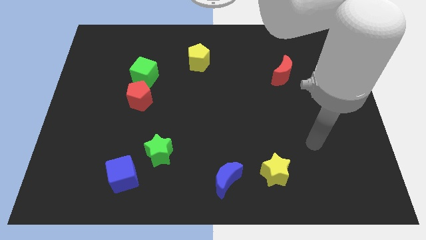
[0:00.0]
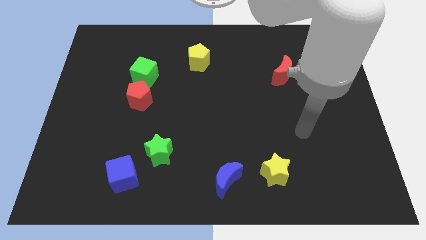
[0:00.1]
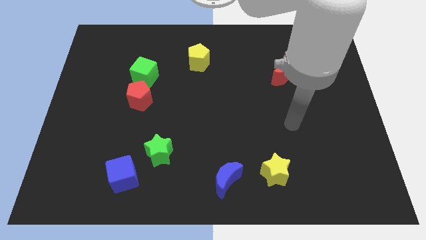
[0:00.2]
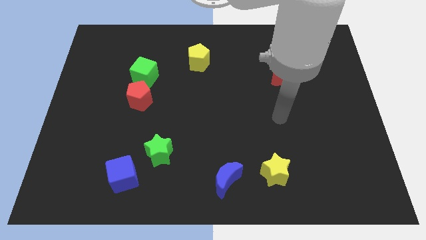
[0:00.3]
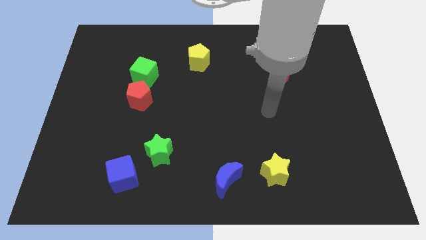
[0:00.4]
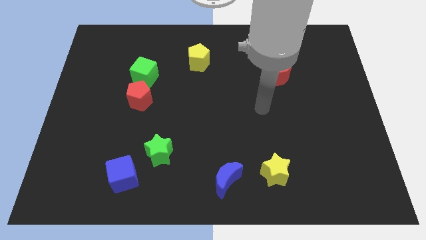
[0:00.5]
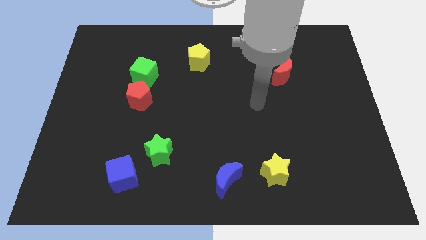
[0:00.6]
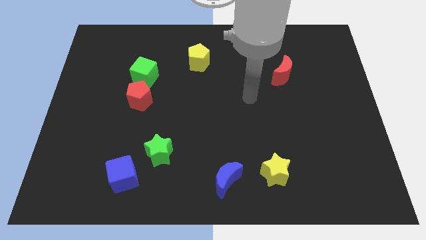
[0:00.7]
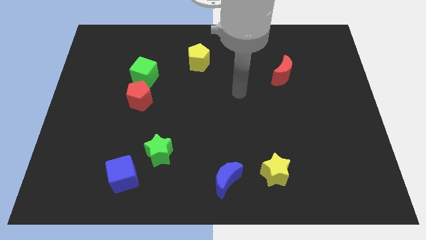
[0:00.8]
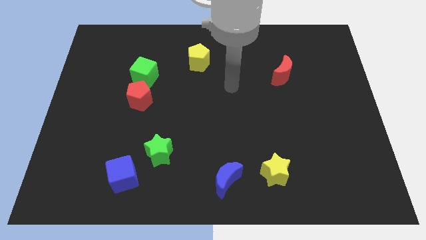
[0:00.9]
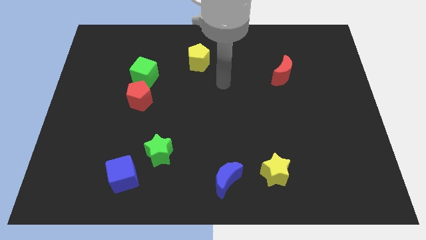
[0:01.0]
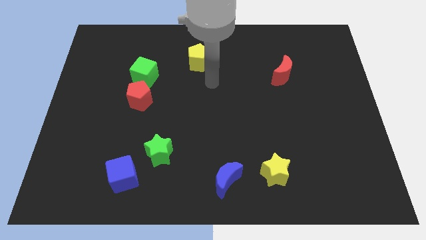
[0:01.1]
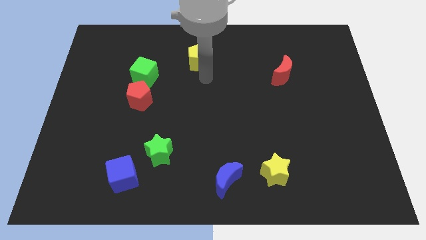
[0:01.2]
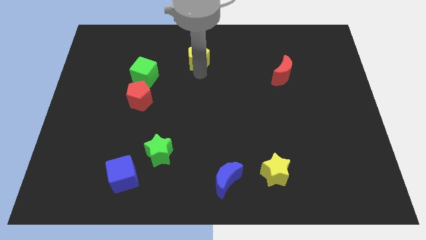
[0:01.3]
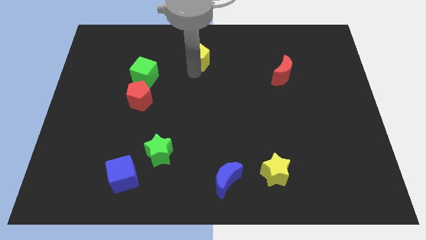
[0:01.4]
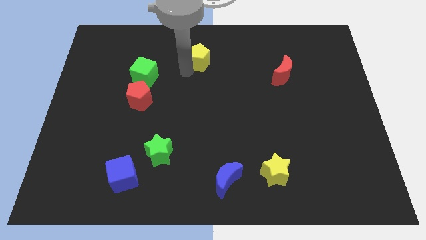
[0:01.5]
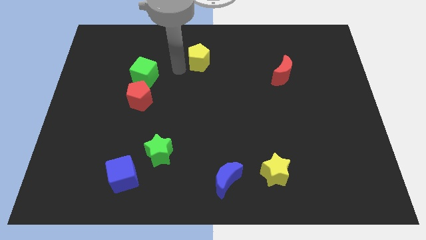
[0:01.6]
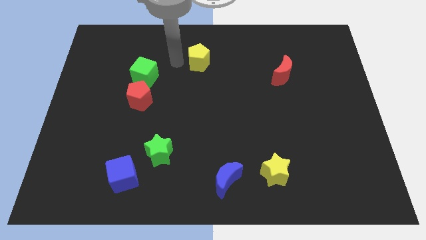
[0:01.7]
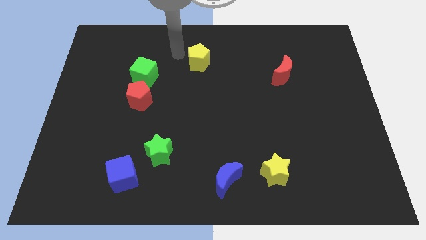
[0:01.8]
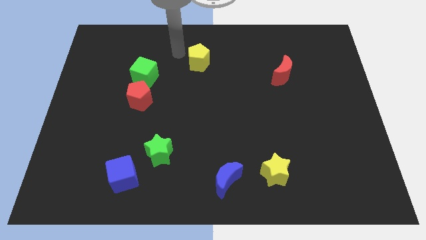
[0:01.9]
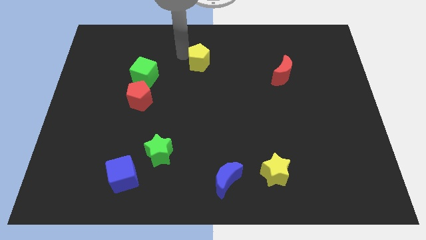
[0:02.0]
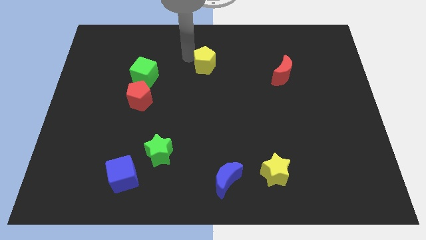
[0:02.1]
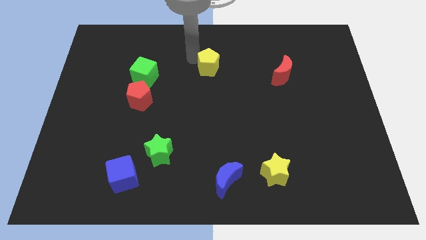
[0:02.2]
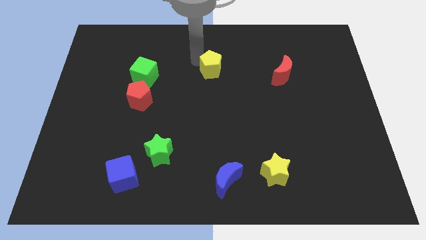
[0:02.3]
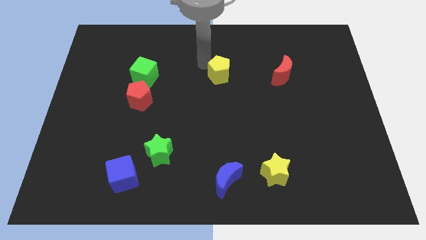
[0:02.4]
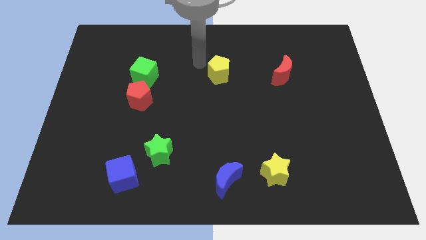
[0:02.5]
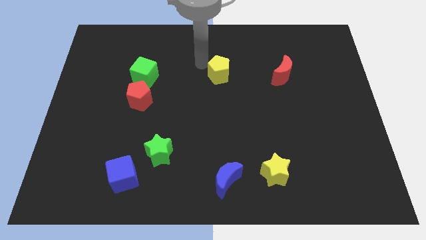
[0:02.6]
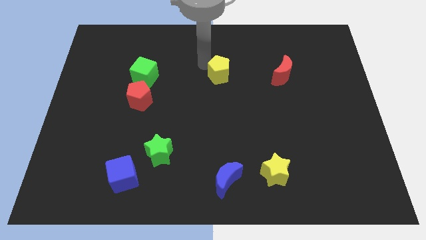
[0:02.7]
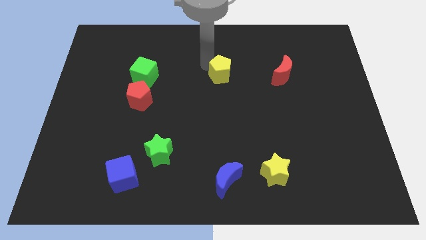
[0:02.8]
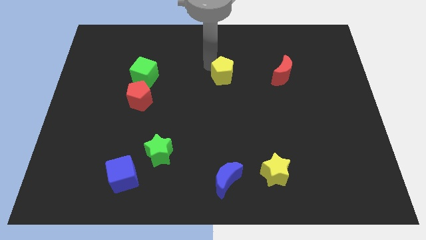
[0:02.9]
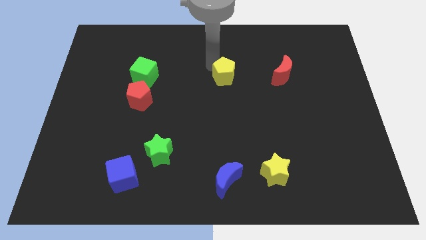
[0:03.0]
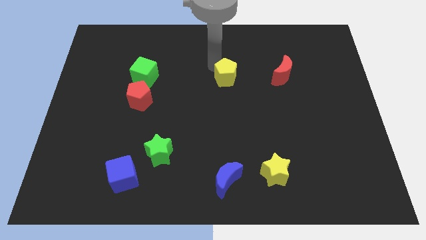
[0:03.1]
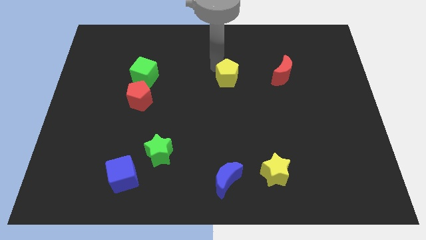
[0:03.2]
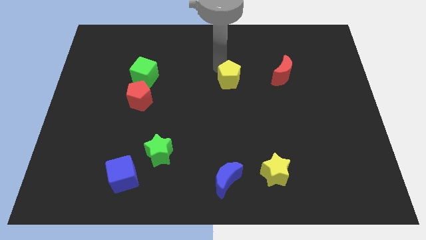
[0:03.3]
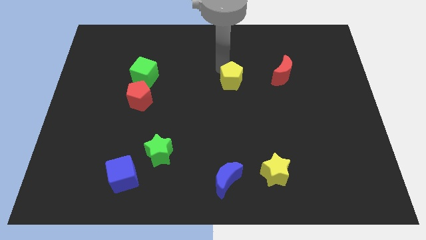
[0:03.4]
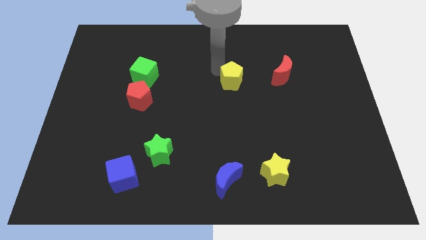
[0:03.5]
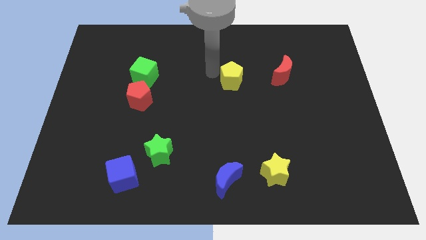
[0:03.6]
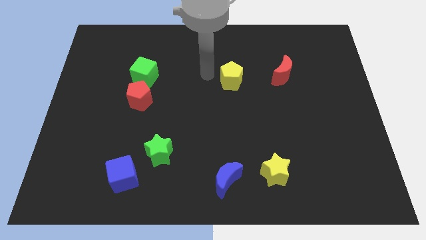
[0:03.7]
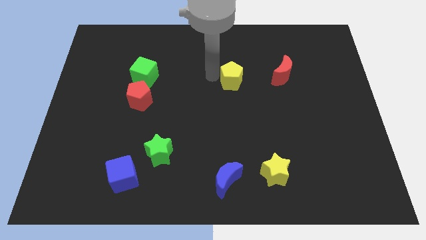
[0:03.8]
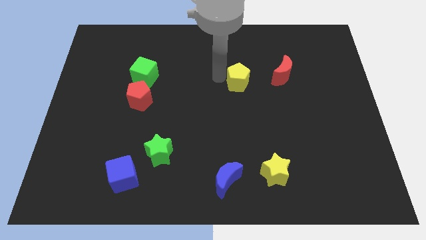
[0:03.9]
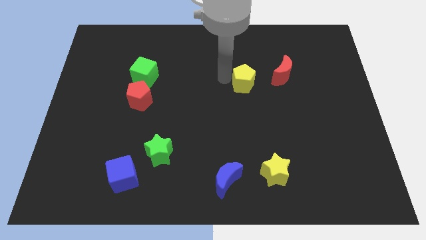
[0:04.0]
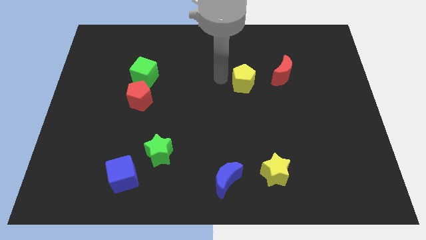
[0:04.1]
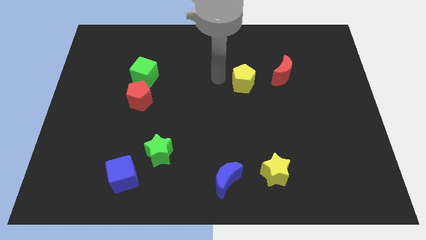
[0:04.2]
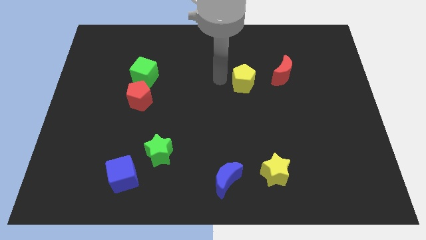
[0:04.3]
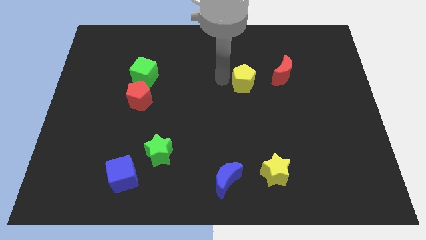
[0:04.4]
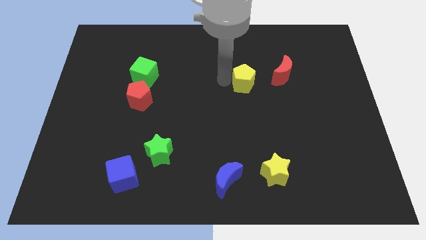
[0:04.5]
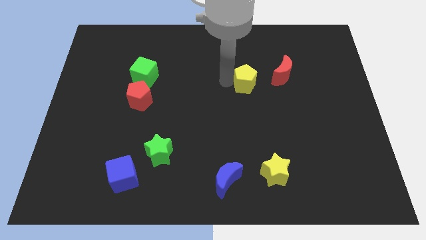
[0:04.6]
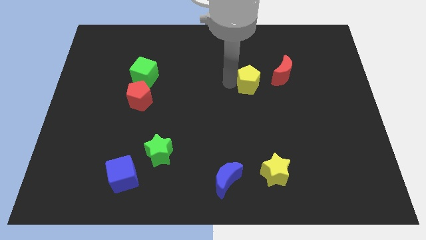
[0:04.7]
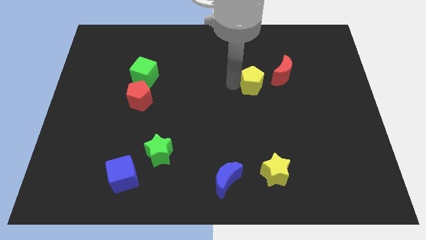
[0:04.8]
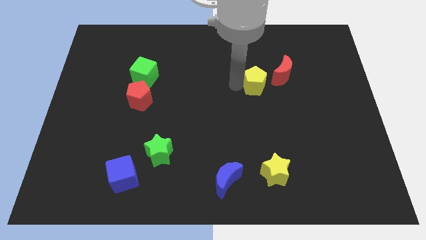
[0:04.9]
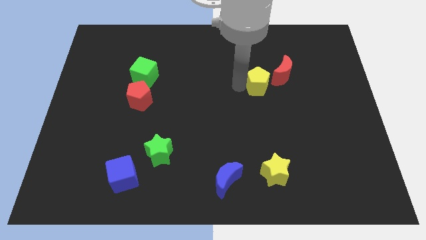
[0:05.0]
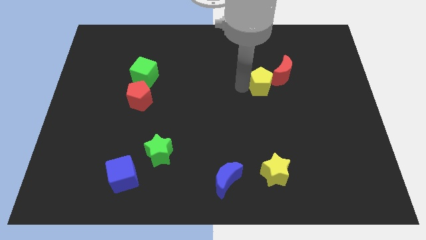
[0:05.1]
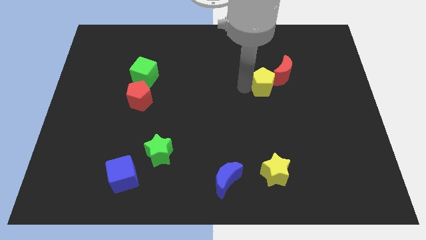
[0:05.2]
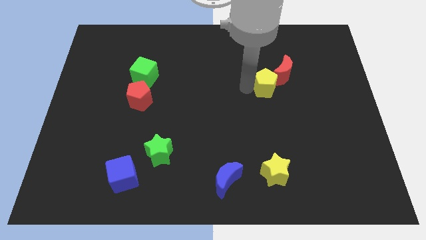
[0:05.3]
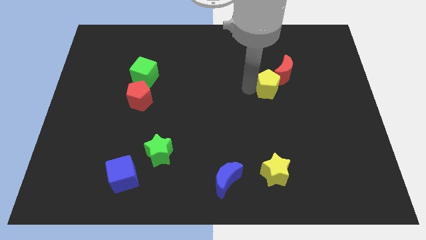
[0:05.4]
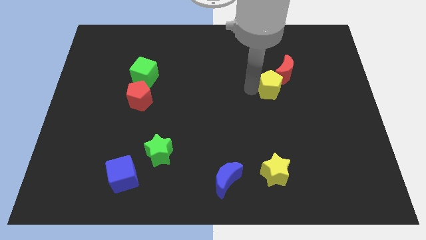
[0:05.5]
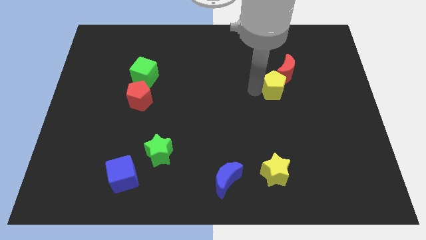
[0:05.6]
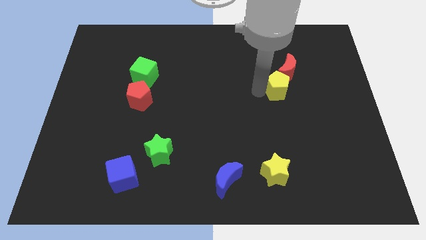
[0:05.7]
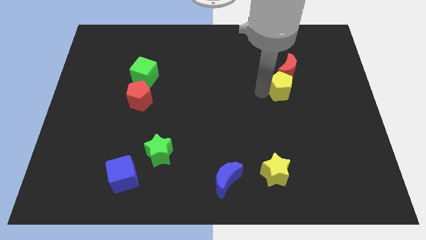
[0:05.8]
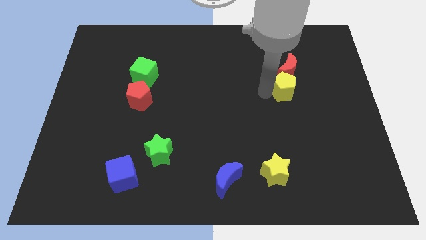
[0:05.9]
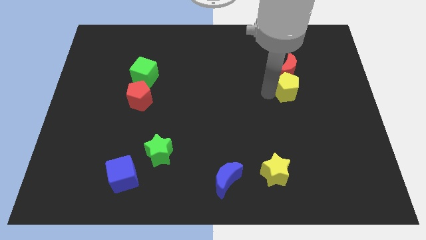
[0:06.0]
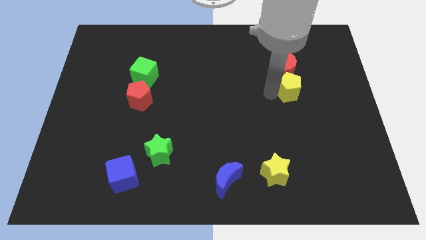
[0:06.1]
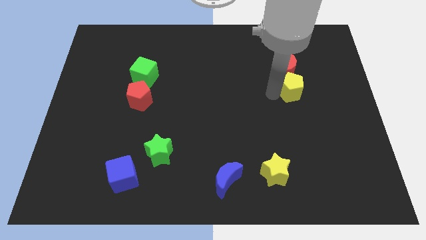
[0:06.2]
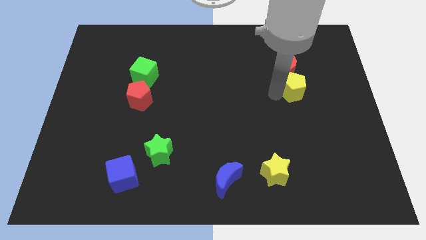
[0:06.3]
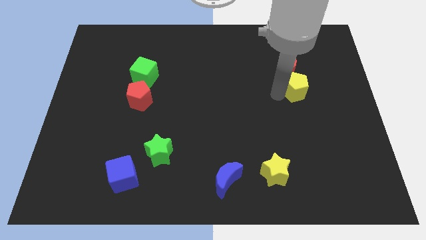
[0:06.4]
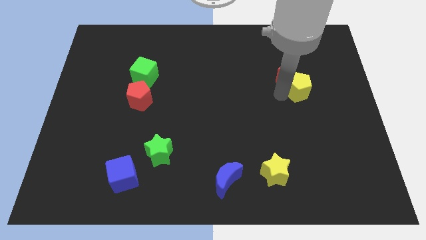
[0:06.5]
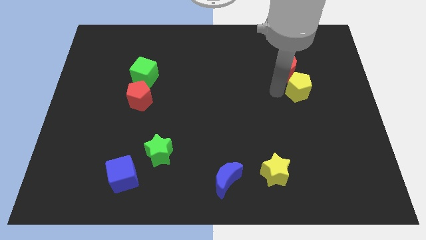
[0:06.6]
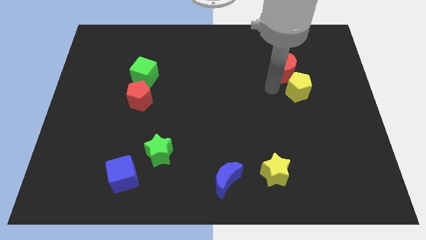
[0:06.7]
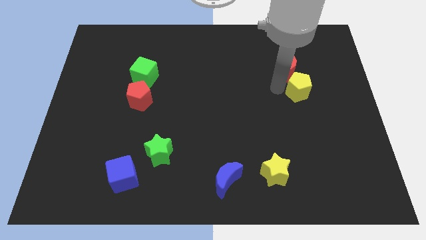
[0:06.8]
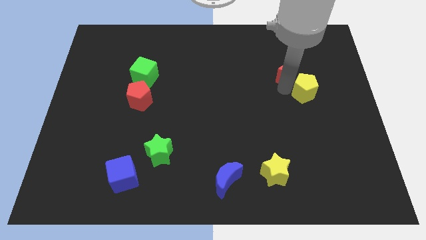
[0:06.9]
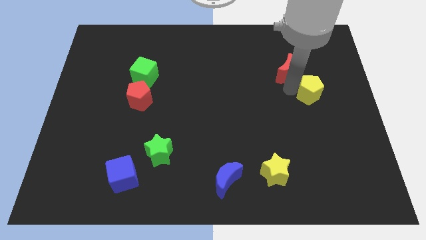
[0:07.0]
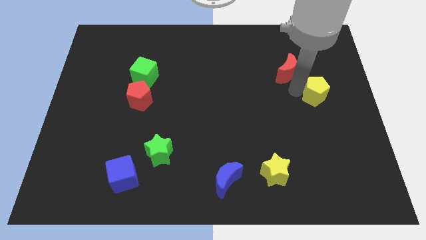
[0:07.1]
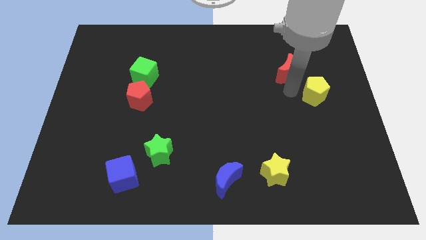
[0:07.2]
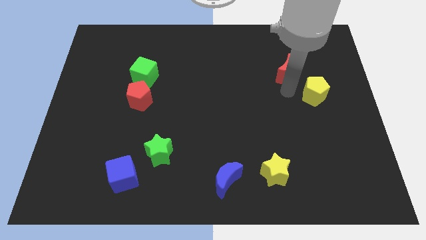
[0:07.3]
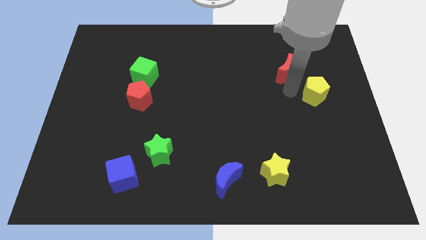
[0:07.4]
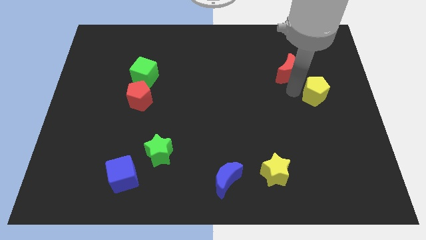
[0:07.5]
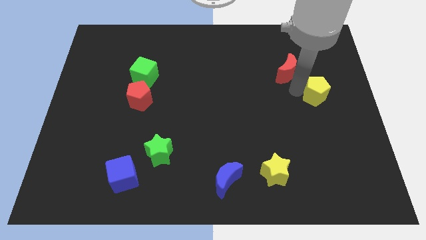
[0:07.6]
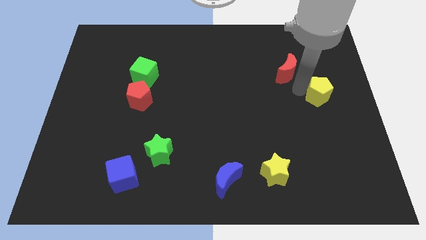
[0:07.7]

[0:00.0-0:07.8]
slide the yellow pentagon to the center right
